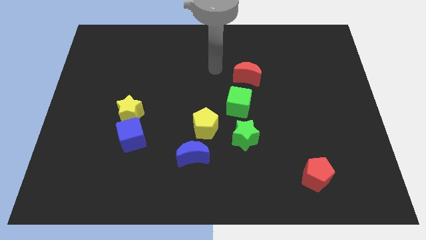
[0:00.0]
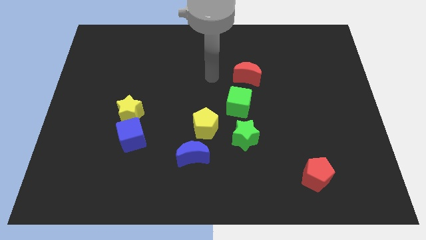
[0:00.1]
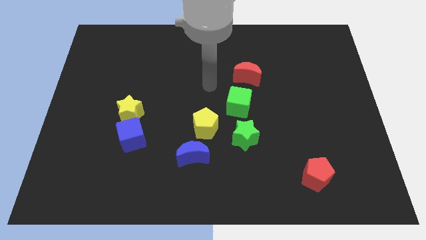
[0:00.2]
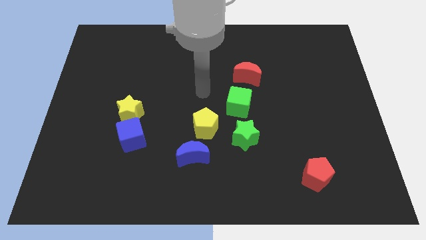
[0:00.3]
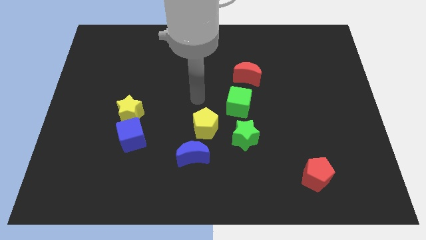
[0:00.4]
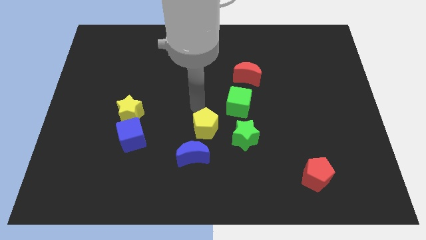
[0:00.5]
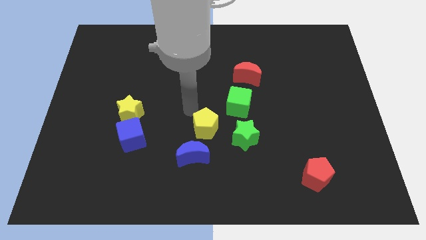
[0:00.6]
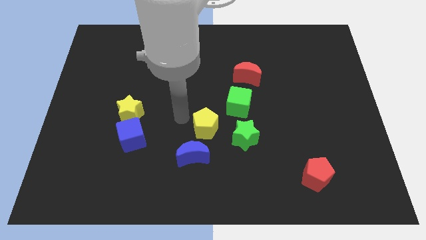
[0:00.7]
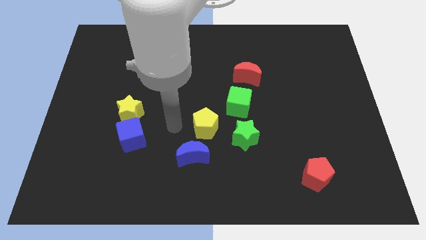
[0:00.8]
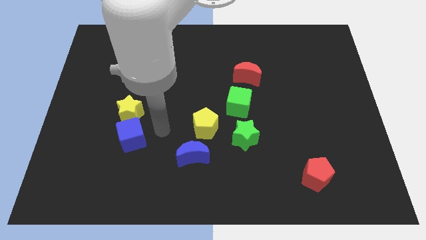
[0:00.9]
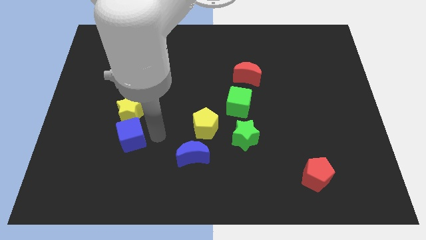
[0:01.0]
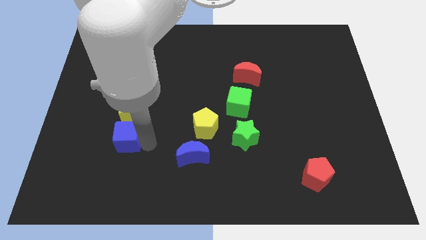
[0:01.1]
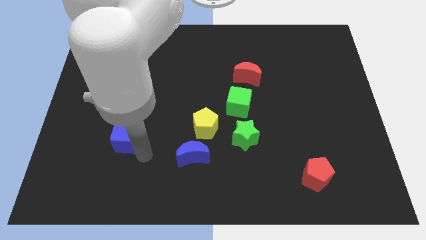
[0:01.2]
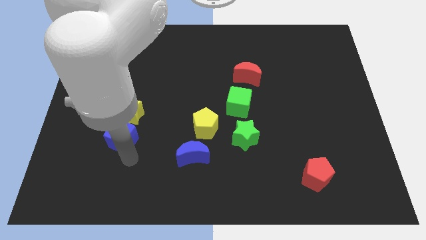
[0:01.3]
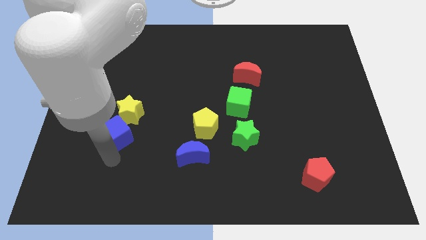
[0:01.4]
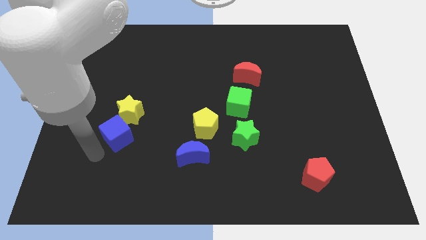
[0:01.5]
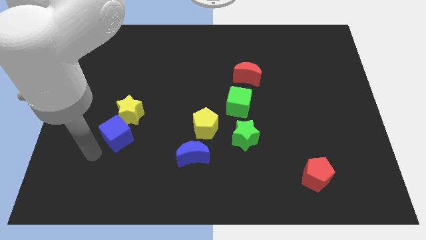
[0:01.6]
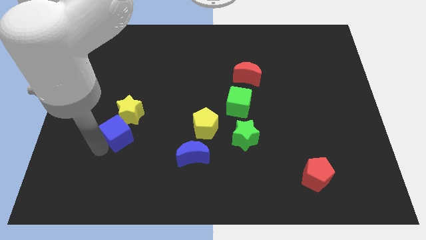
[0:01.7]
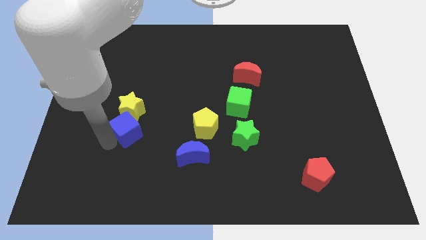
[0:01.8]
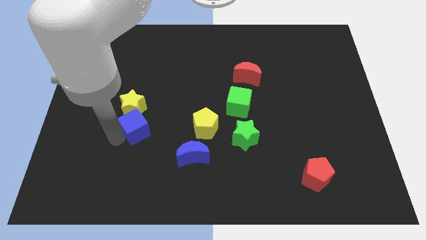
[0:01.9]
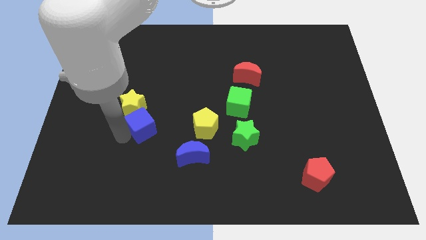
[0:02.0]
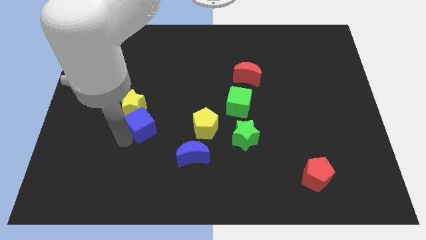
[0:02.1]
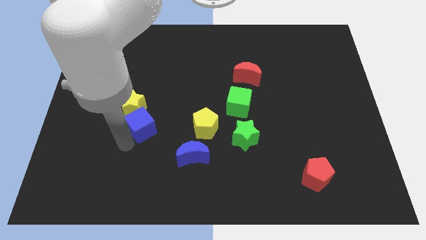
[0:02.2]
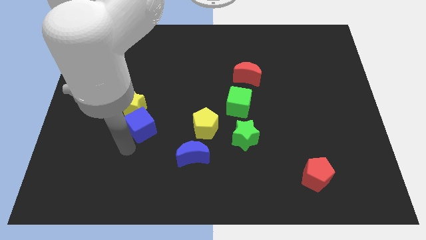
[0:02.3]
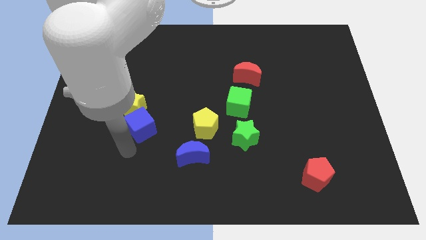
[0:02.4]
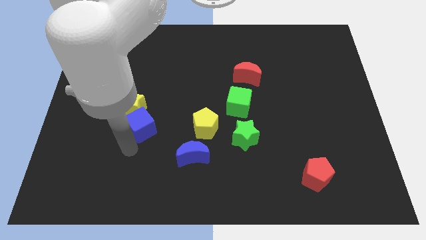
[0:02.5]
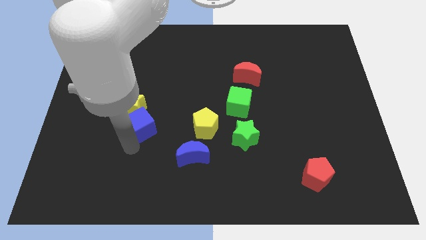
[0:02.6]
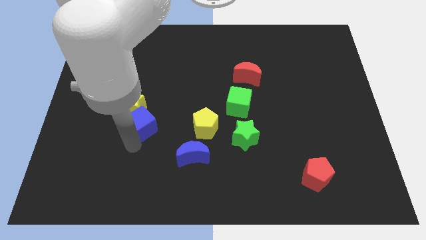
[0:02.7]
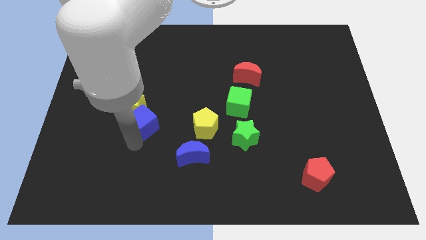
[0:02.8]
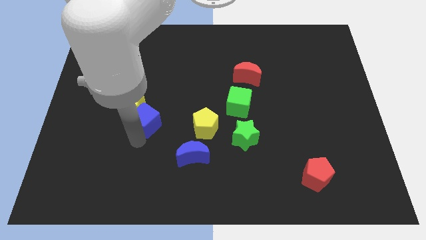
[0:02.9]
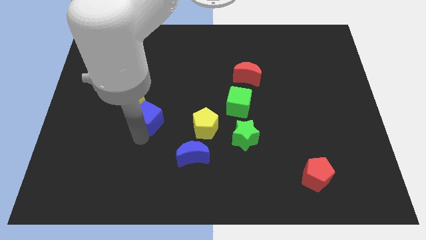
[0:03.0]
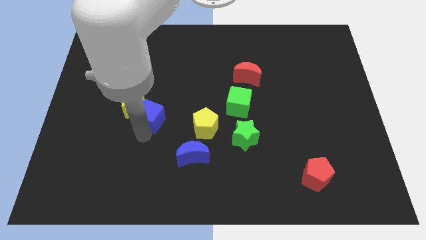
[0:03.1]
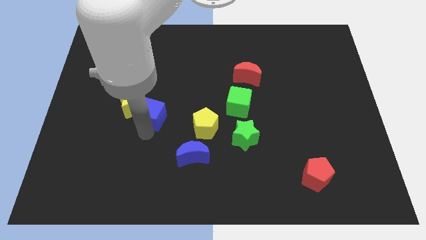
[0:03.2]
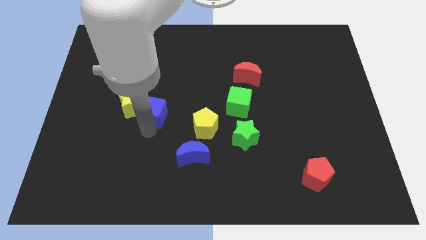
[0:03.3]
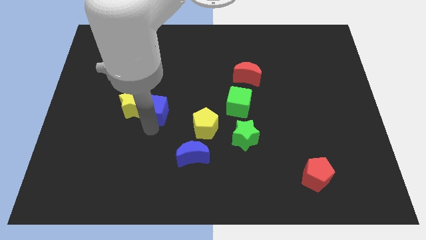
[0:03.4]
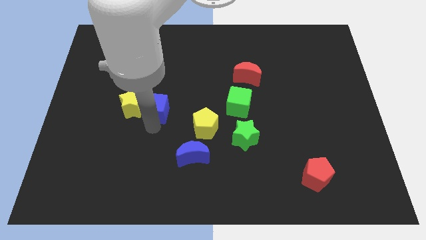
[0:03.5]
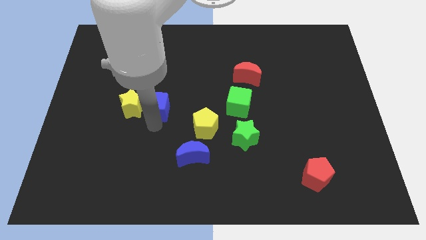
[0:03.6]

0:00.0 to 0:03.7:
push the blue cube a little upwards

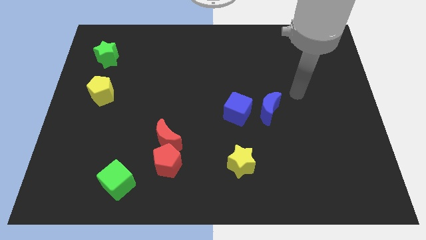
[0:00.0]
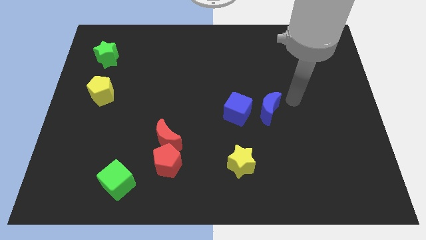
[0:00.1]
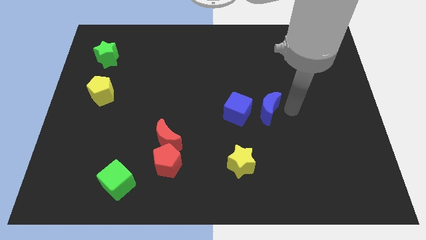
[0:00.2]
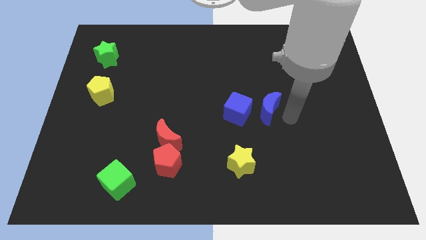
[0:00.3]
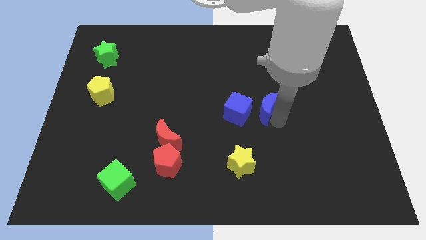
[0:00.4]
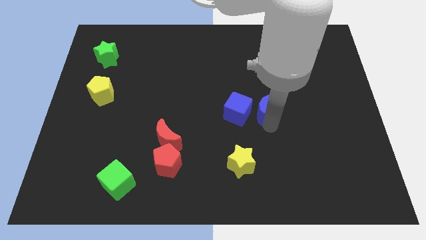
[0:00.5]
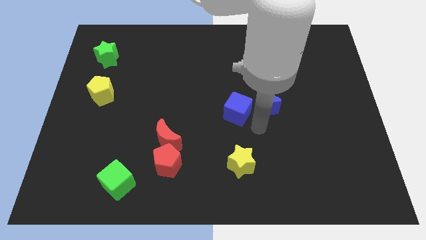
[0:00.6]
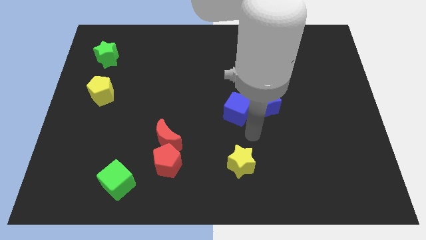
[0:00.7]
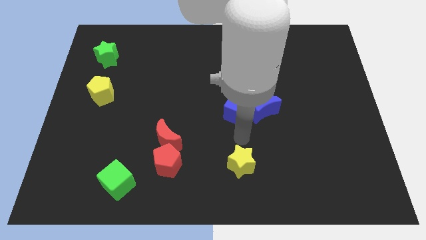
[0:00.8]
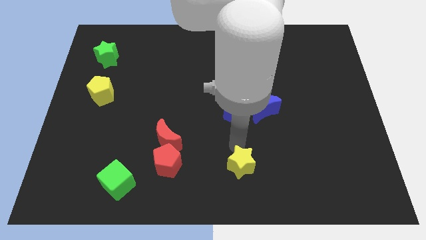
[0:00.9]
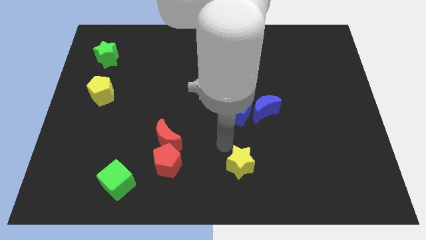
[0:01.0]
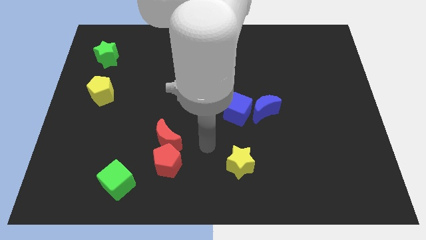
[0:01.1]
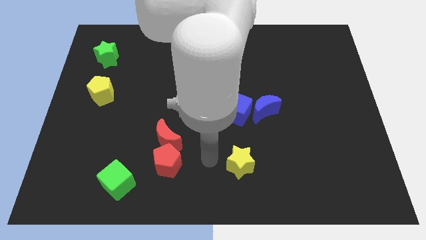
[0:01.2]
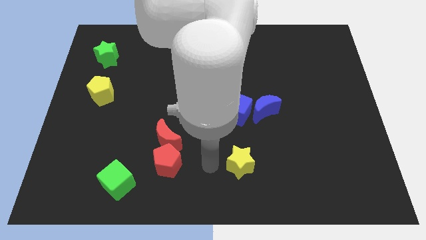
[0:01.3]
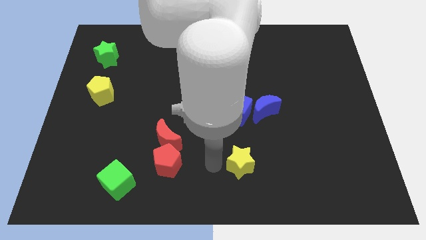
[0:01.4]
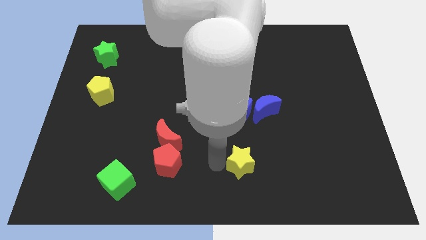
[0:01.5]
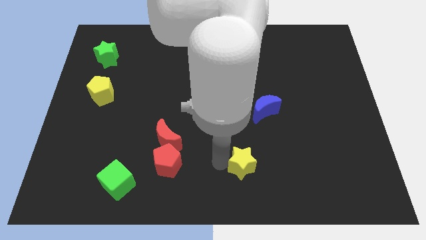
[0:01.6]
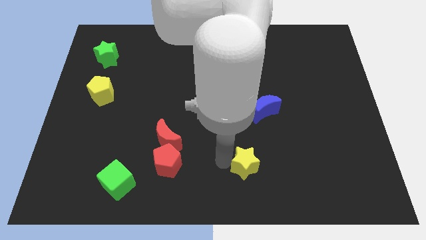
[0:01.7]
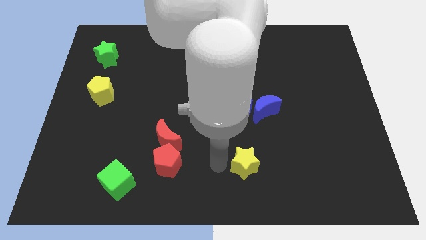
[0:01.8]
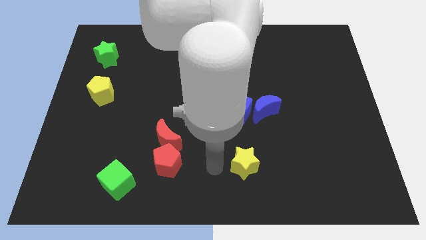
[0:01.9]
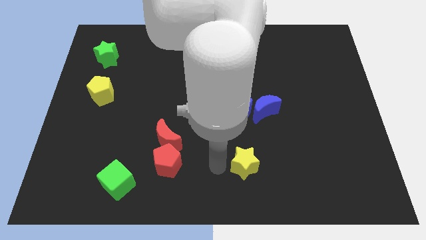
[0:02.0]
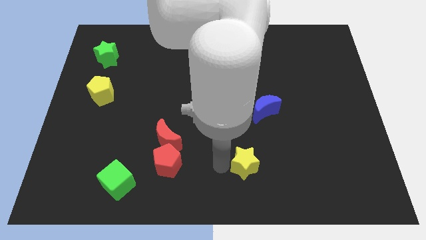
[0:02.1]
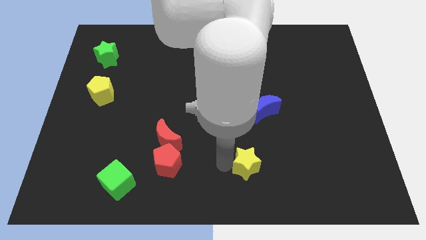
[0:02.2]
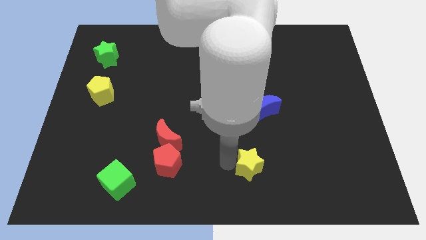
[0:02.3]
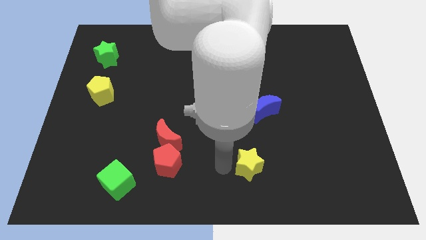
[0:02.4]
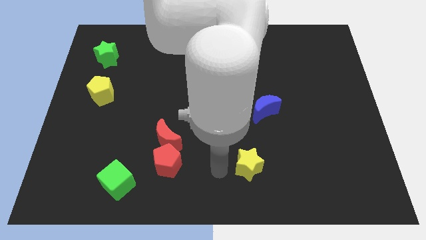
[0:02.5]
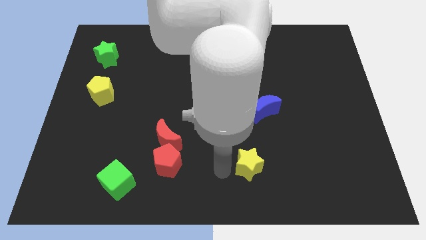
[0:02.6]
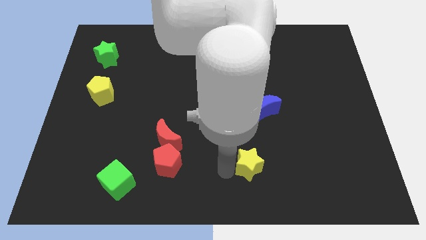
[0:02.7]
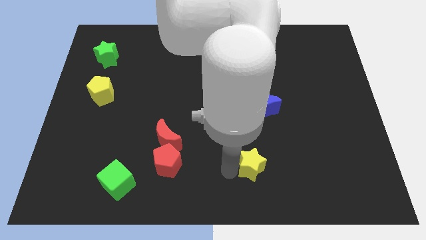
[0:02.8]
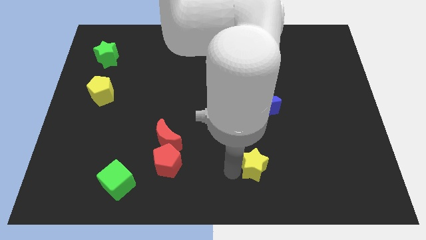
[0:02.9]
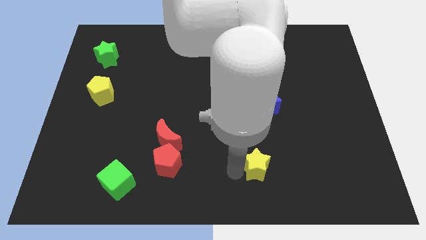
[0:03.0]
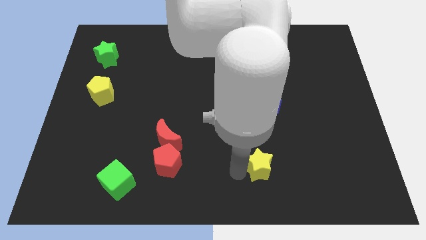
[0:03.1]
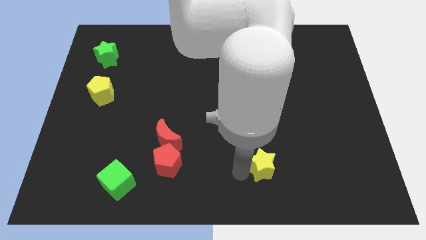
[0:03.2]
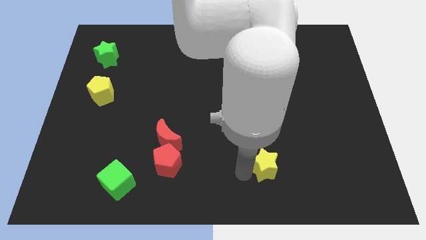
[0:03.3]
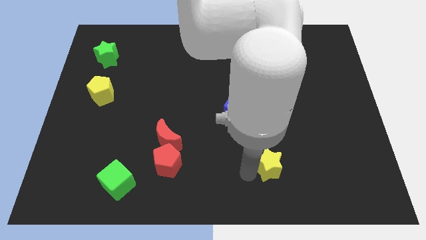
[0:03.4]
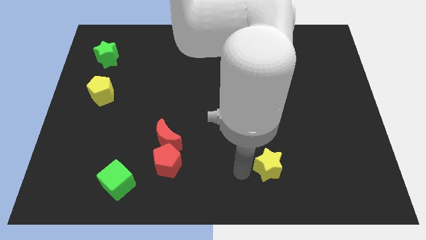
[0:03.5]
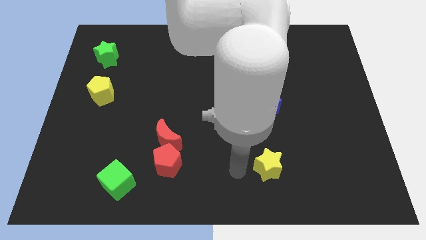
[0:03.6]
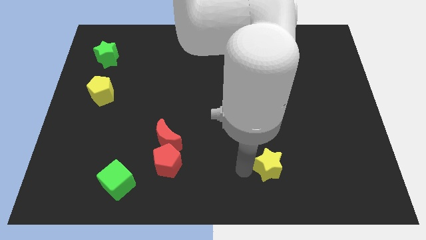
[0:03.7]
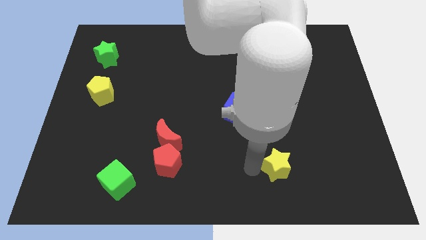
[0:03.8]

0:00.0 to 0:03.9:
slightly move the yellow star right

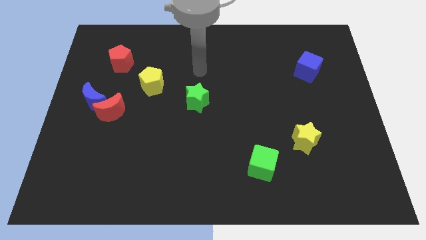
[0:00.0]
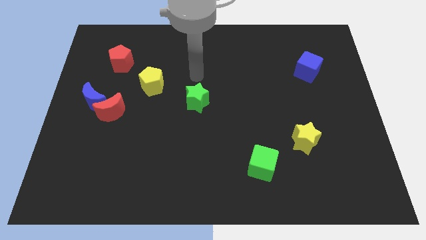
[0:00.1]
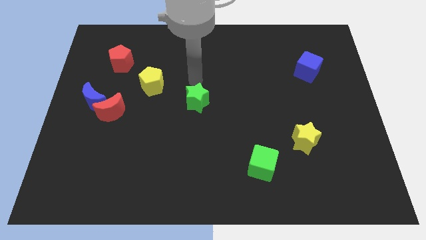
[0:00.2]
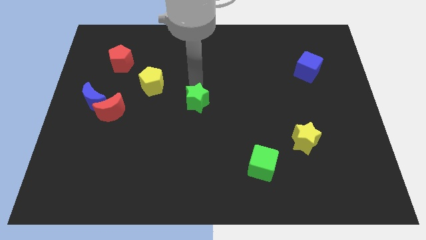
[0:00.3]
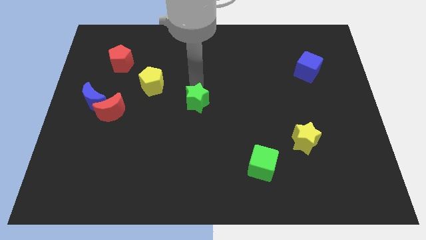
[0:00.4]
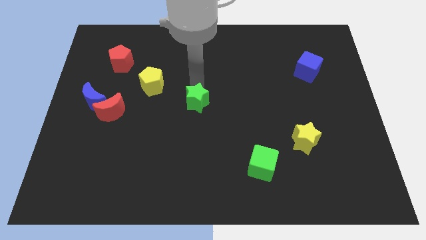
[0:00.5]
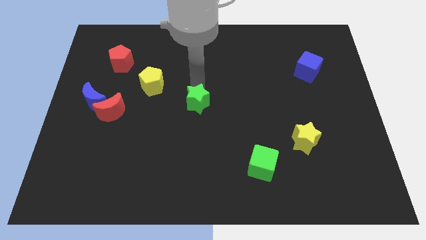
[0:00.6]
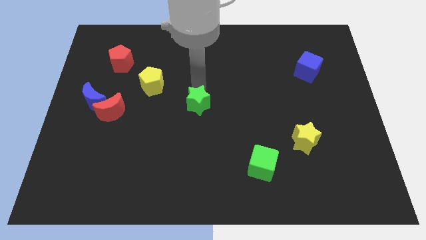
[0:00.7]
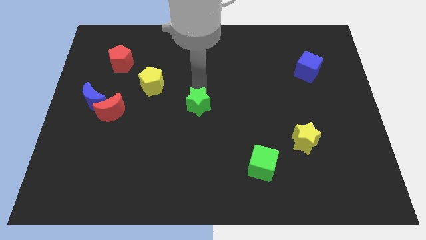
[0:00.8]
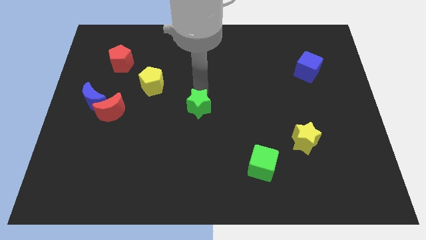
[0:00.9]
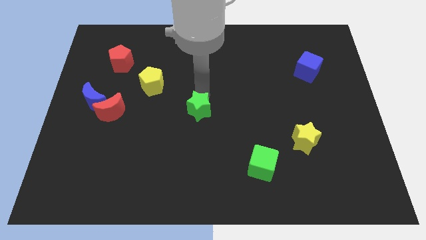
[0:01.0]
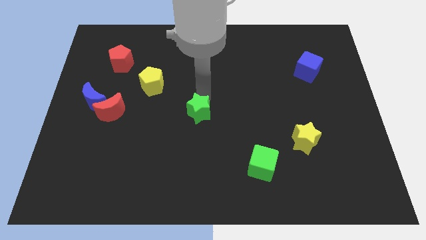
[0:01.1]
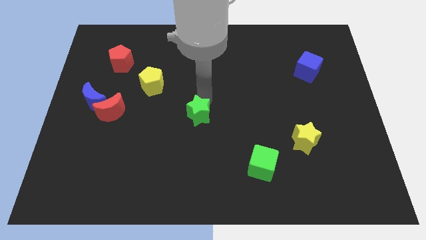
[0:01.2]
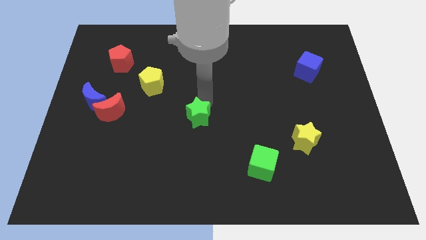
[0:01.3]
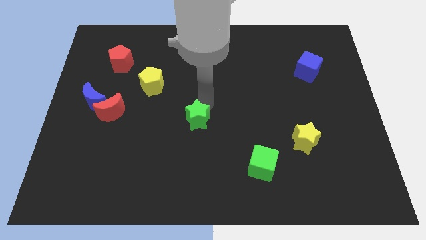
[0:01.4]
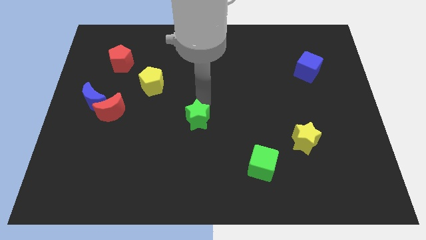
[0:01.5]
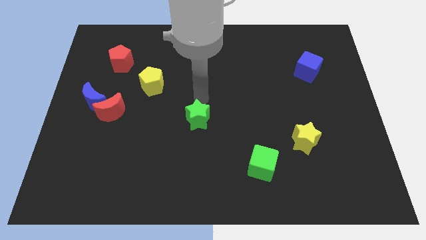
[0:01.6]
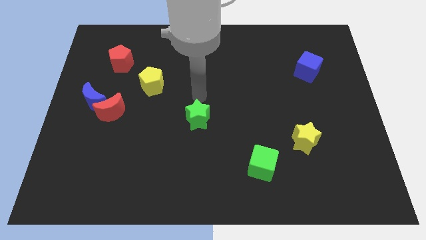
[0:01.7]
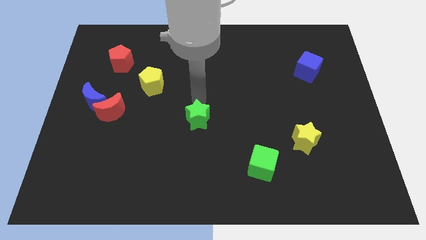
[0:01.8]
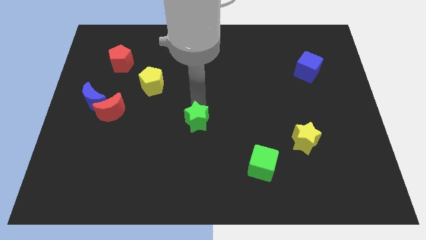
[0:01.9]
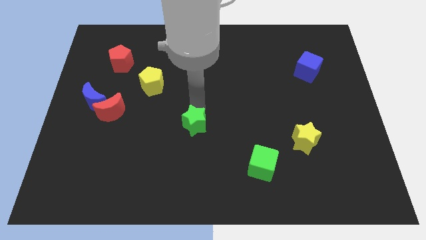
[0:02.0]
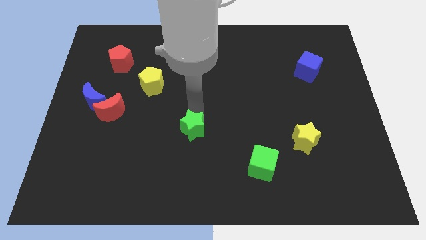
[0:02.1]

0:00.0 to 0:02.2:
push the green star down a bit
